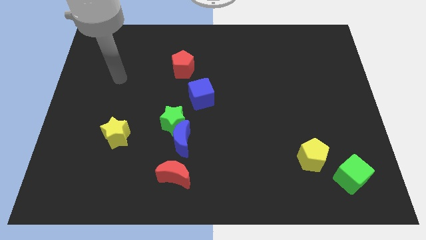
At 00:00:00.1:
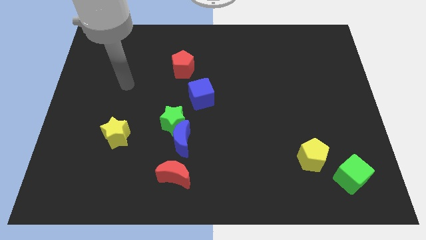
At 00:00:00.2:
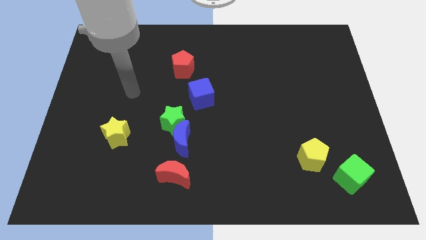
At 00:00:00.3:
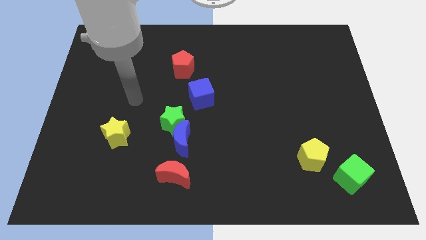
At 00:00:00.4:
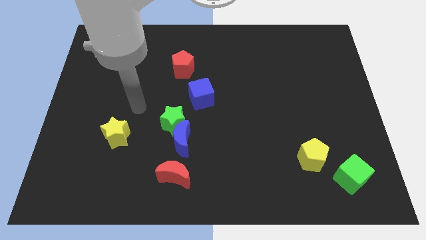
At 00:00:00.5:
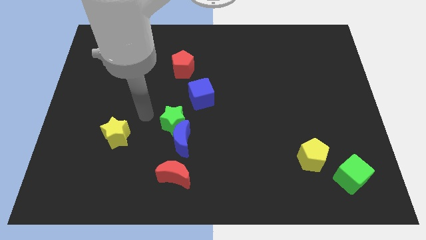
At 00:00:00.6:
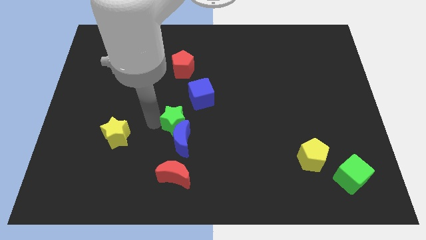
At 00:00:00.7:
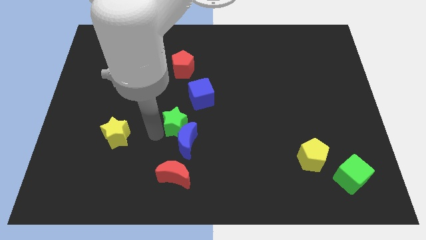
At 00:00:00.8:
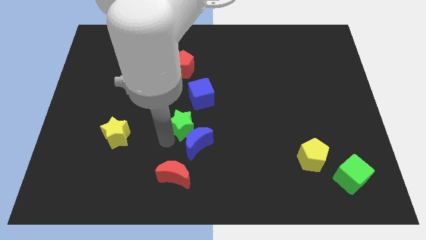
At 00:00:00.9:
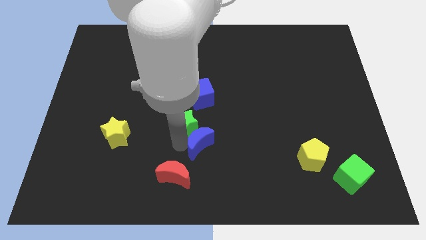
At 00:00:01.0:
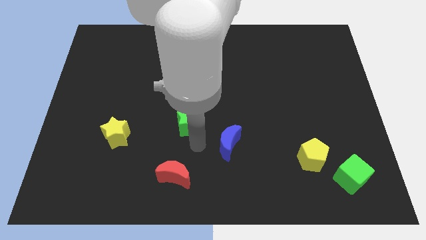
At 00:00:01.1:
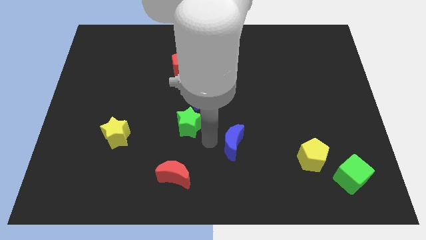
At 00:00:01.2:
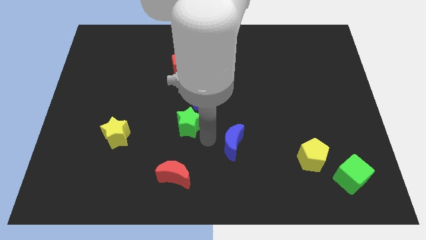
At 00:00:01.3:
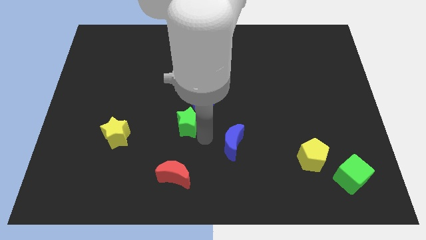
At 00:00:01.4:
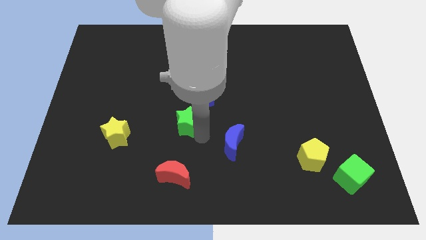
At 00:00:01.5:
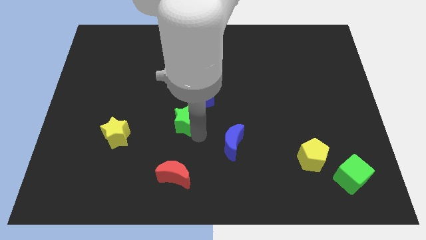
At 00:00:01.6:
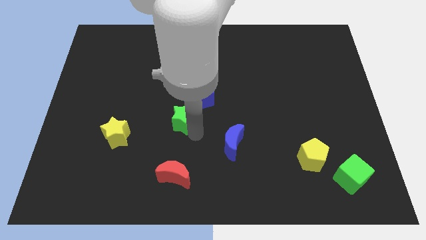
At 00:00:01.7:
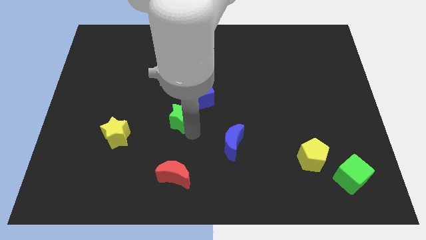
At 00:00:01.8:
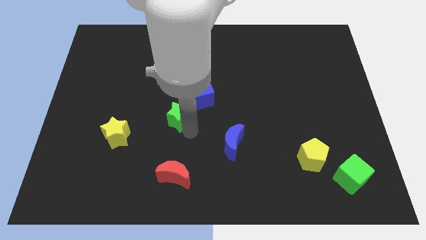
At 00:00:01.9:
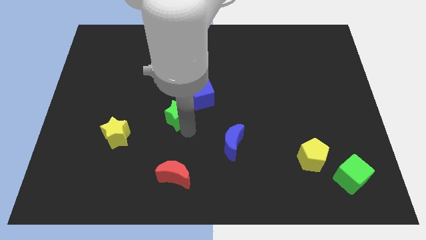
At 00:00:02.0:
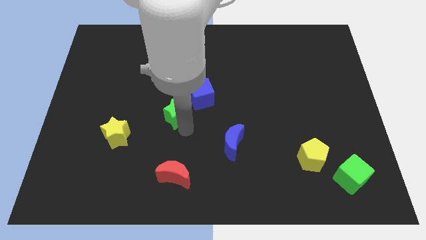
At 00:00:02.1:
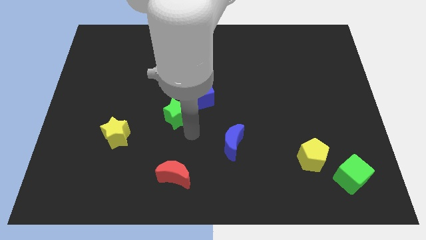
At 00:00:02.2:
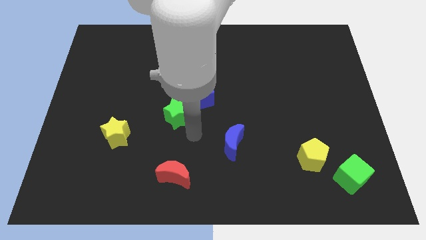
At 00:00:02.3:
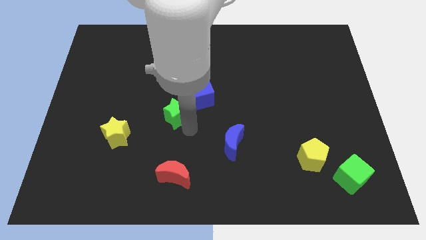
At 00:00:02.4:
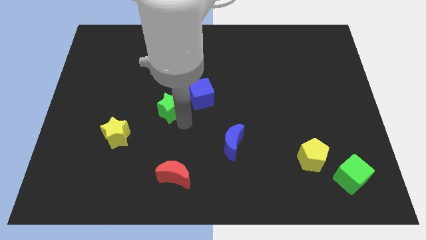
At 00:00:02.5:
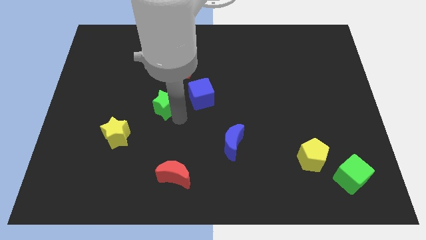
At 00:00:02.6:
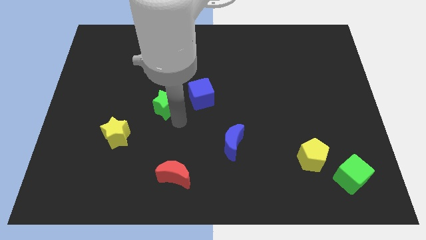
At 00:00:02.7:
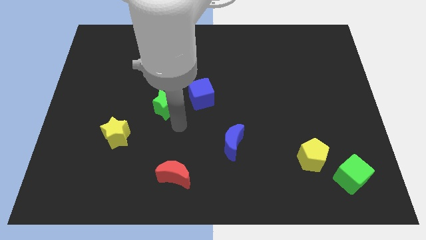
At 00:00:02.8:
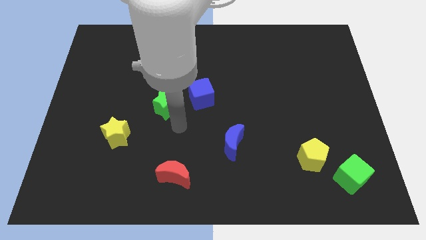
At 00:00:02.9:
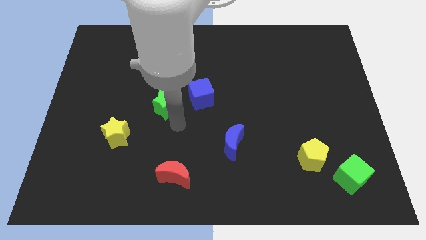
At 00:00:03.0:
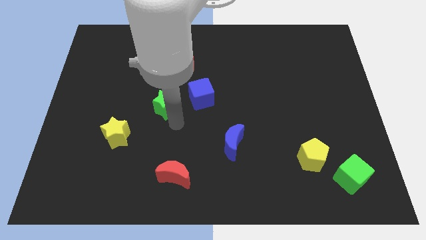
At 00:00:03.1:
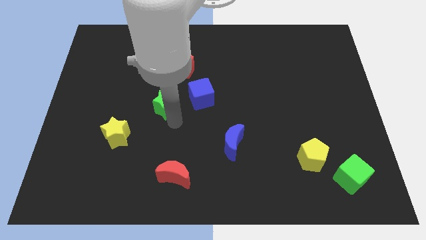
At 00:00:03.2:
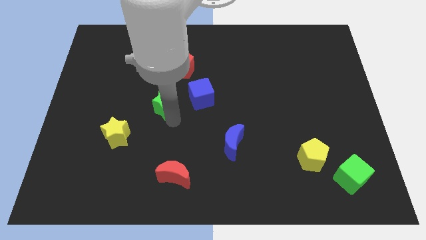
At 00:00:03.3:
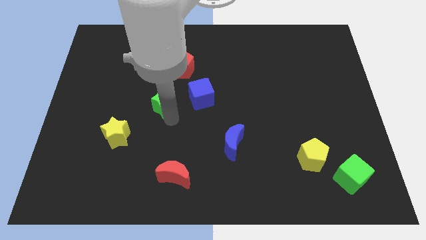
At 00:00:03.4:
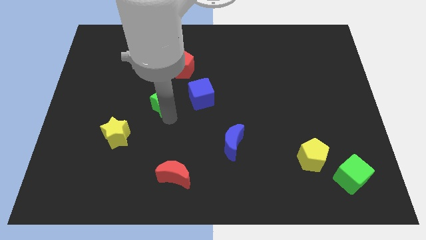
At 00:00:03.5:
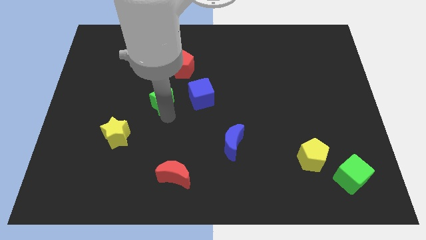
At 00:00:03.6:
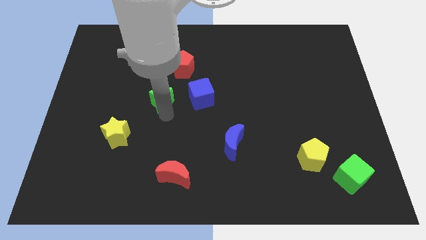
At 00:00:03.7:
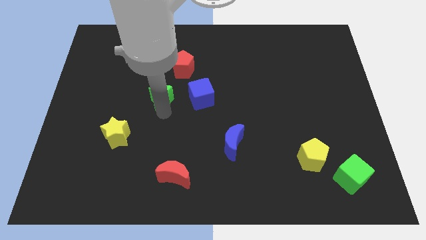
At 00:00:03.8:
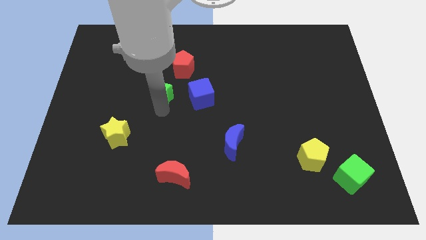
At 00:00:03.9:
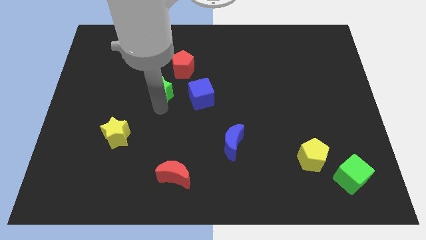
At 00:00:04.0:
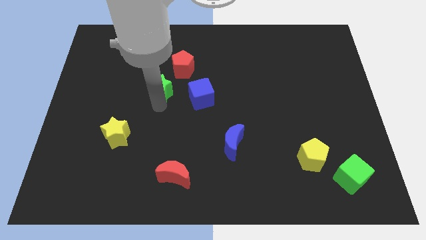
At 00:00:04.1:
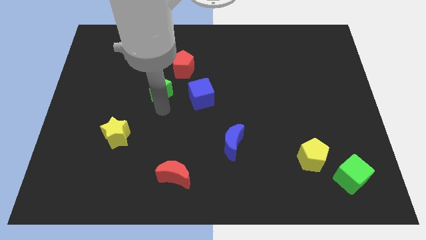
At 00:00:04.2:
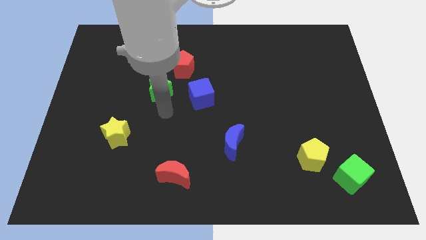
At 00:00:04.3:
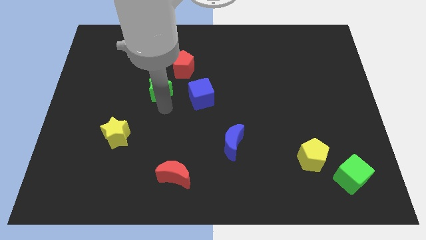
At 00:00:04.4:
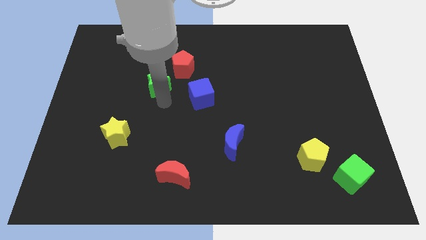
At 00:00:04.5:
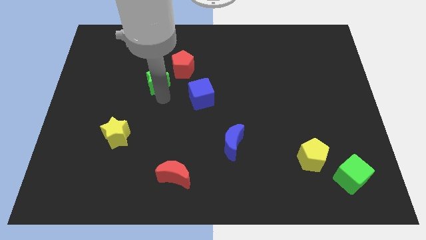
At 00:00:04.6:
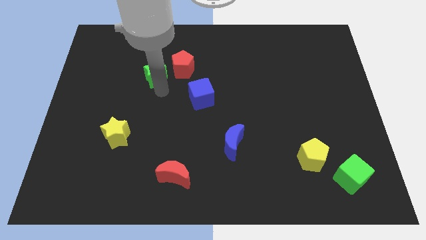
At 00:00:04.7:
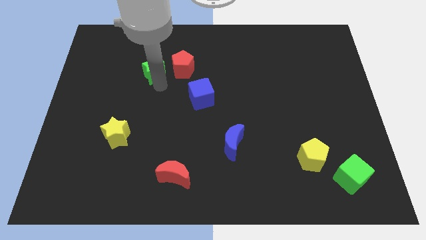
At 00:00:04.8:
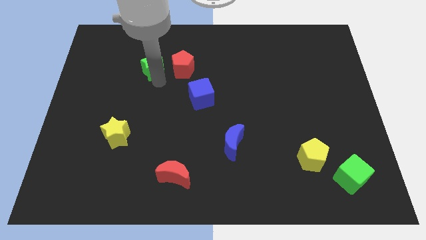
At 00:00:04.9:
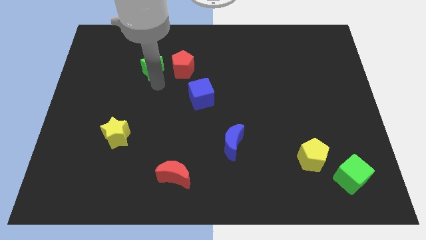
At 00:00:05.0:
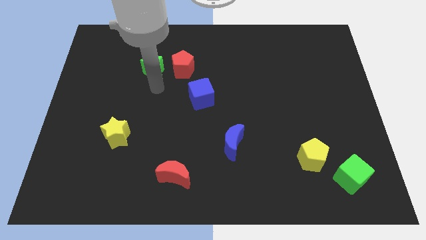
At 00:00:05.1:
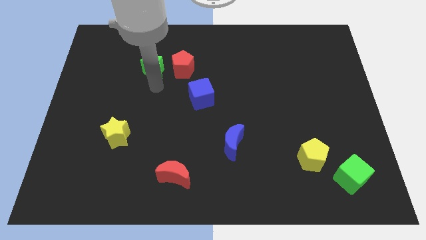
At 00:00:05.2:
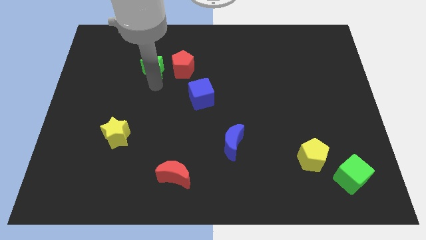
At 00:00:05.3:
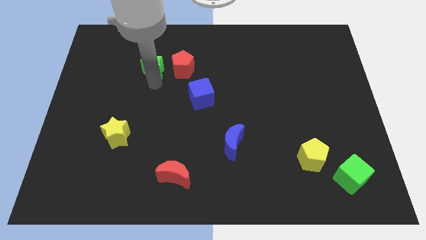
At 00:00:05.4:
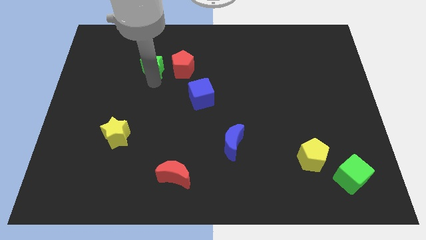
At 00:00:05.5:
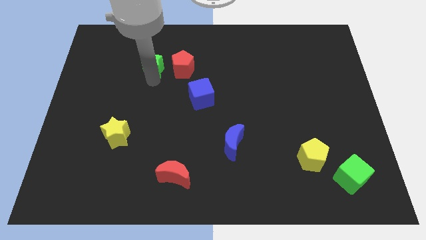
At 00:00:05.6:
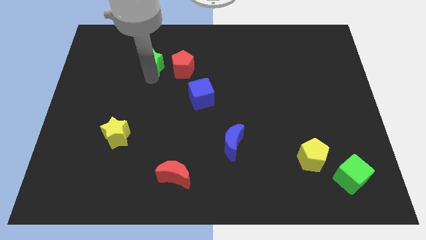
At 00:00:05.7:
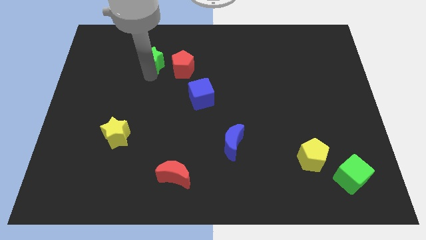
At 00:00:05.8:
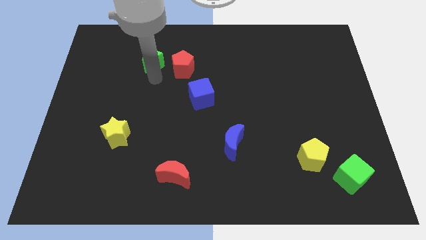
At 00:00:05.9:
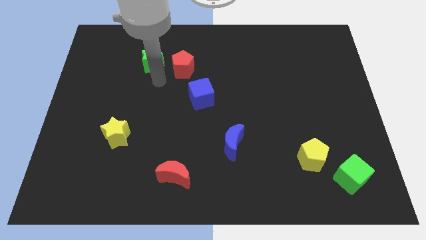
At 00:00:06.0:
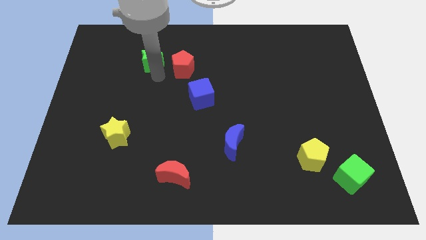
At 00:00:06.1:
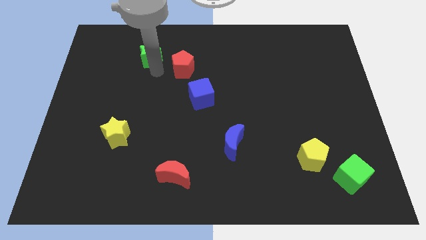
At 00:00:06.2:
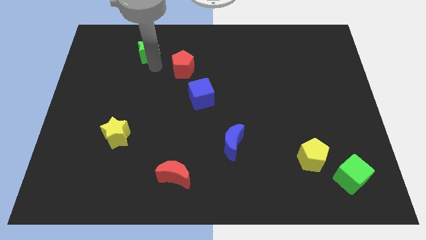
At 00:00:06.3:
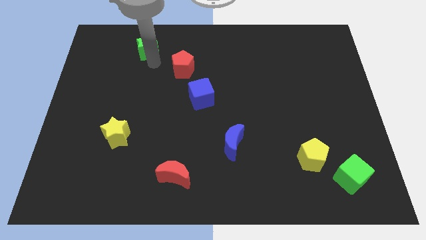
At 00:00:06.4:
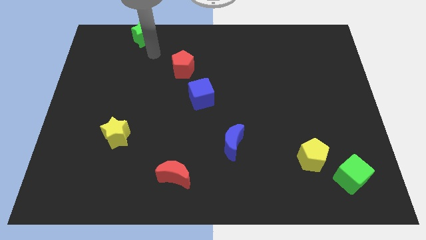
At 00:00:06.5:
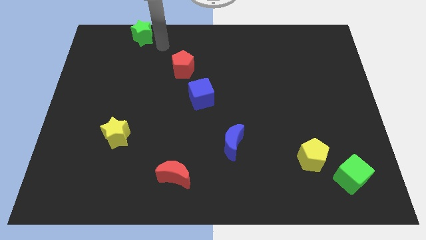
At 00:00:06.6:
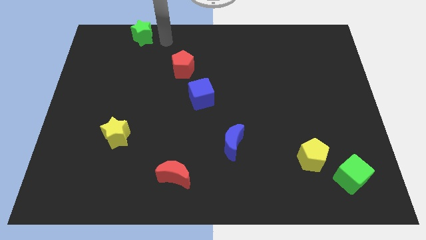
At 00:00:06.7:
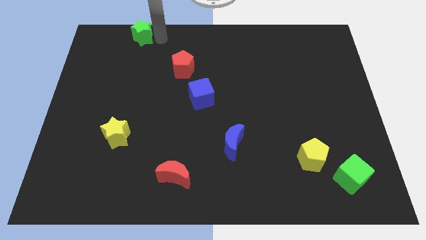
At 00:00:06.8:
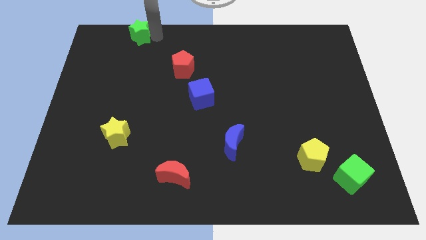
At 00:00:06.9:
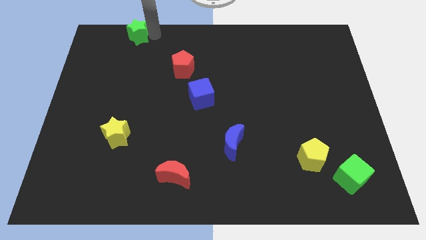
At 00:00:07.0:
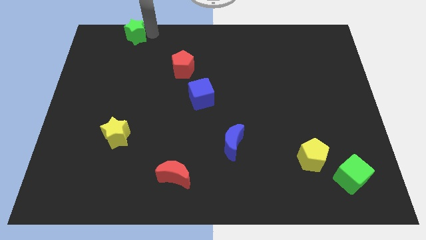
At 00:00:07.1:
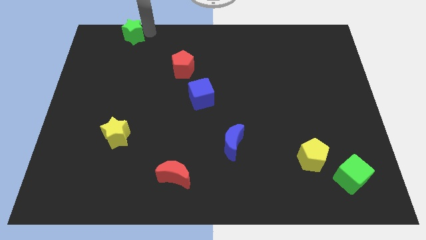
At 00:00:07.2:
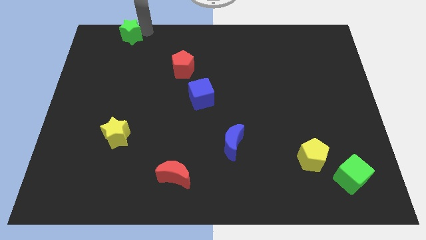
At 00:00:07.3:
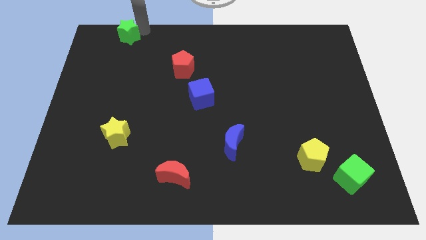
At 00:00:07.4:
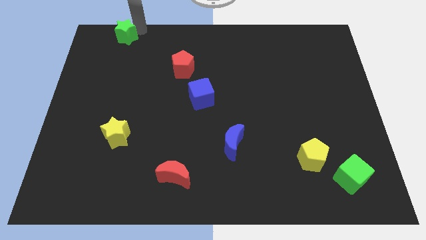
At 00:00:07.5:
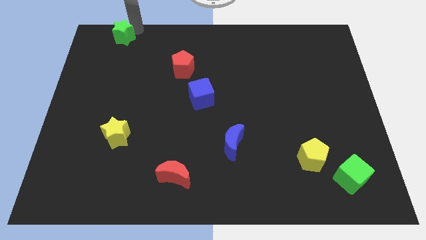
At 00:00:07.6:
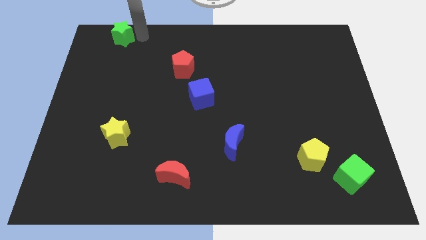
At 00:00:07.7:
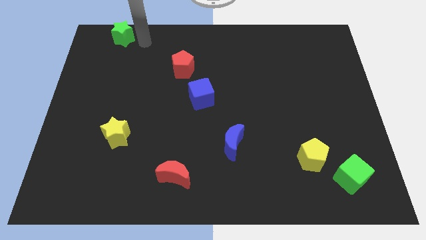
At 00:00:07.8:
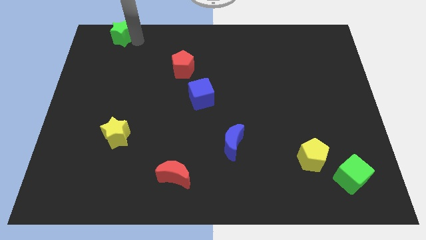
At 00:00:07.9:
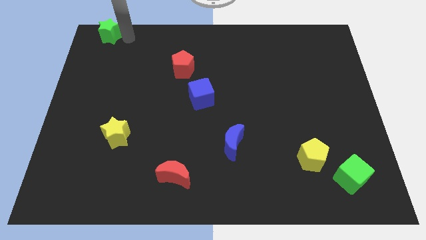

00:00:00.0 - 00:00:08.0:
slide the green star to the top left of the board
